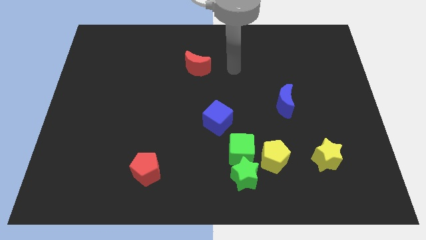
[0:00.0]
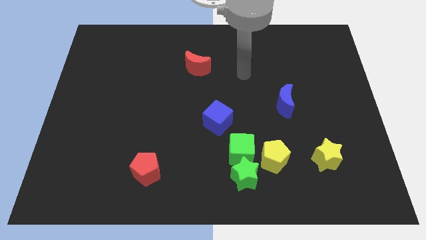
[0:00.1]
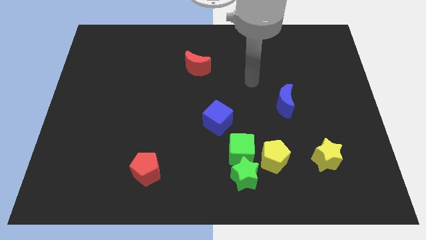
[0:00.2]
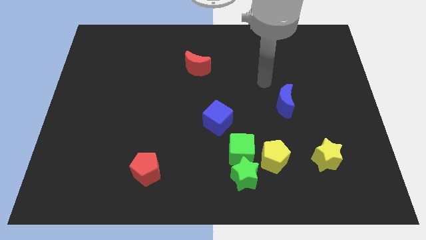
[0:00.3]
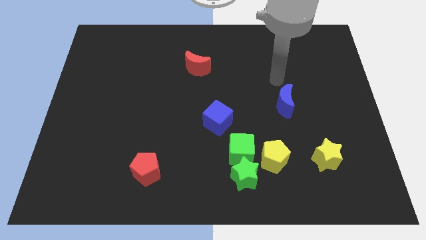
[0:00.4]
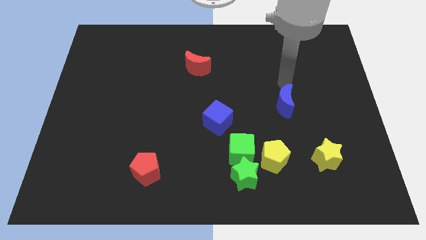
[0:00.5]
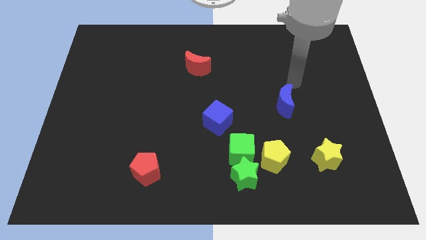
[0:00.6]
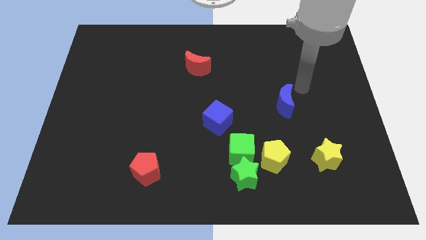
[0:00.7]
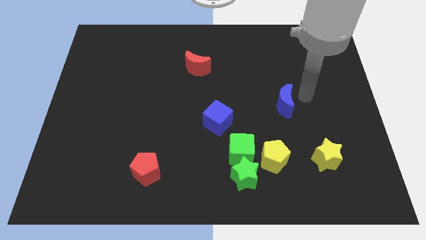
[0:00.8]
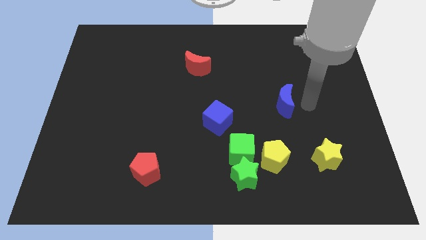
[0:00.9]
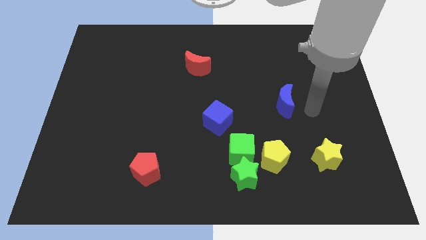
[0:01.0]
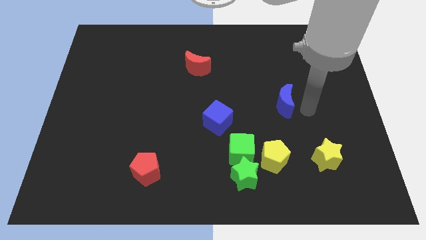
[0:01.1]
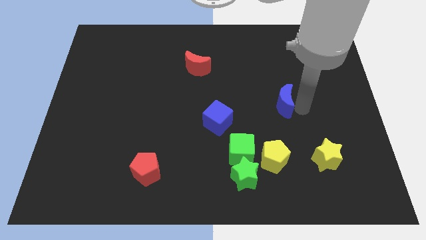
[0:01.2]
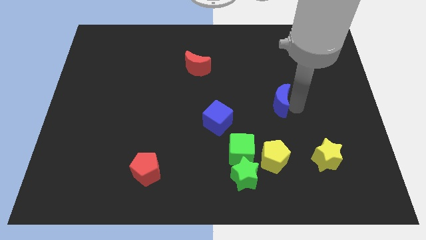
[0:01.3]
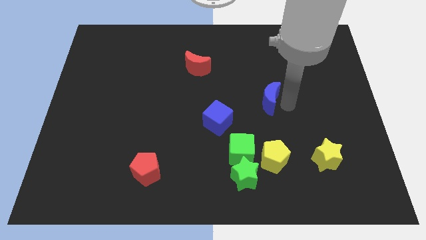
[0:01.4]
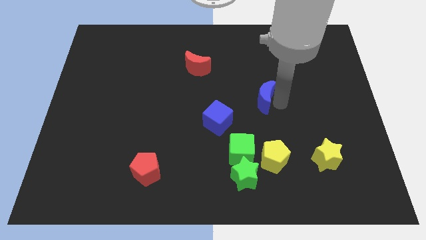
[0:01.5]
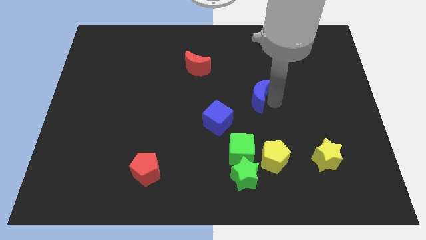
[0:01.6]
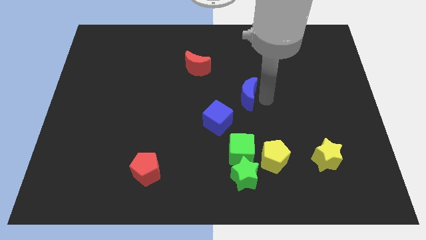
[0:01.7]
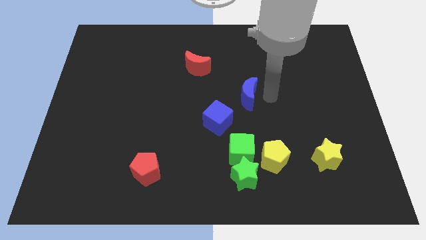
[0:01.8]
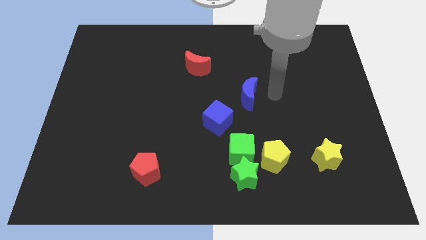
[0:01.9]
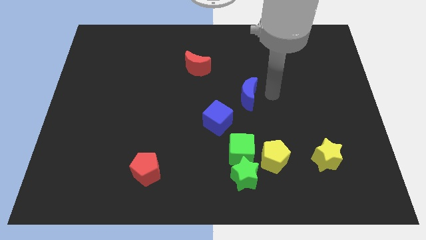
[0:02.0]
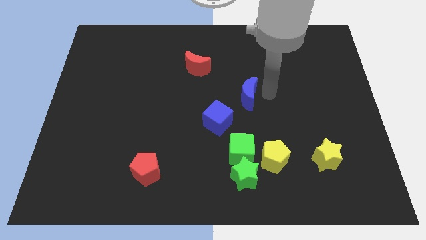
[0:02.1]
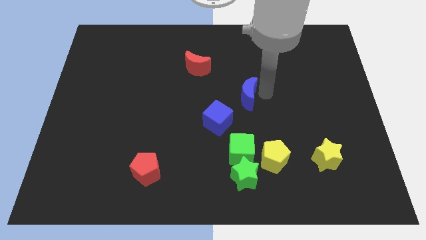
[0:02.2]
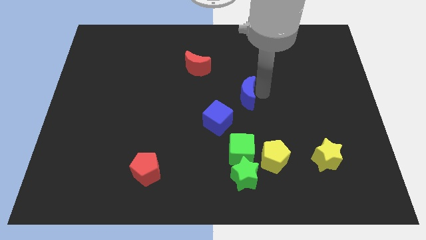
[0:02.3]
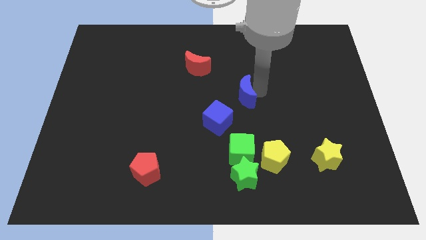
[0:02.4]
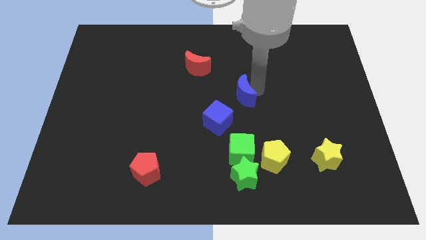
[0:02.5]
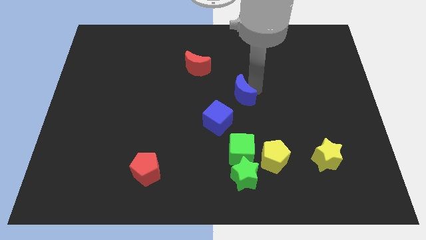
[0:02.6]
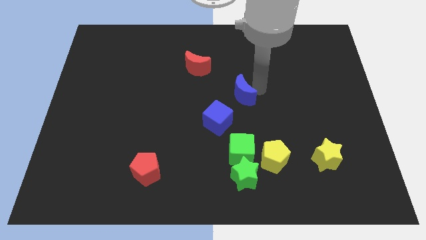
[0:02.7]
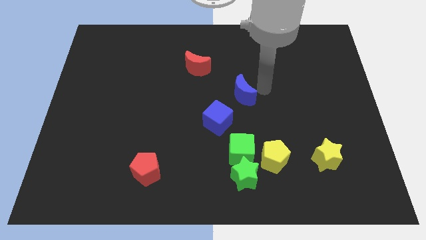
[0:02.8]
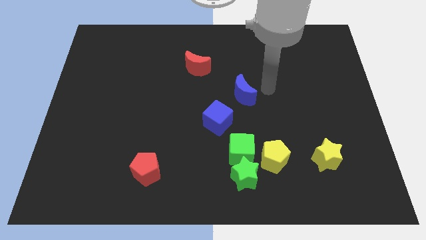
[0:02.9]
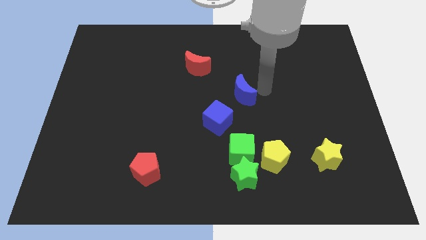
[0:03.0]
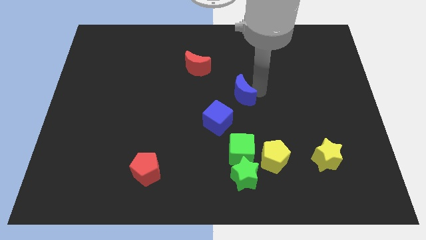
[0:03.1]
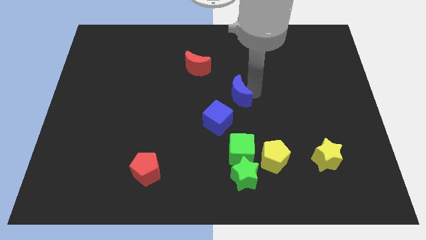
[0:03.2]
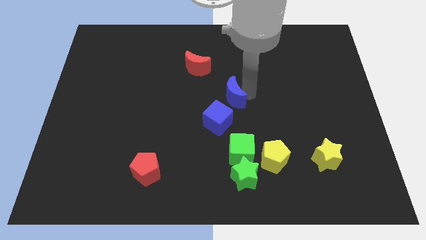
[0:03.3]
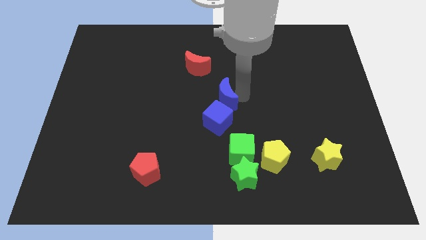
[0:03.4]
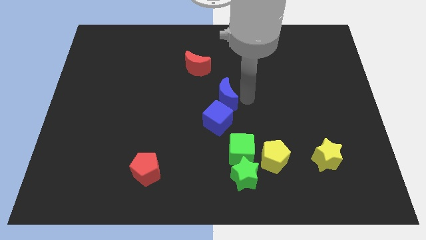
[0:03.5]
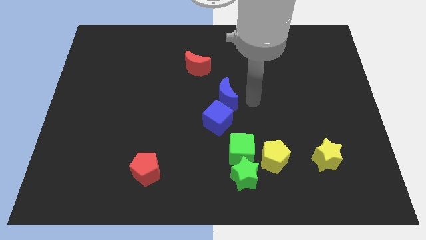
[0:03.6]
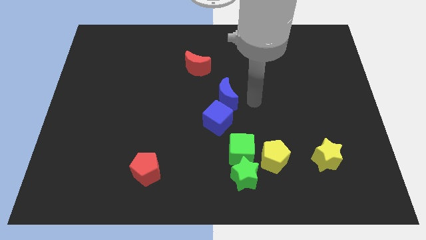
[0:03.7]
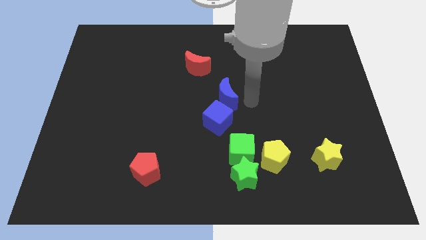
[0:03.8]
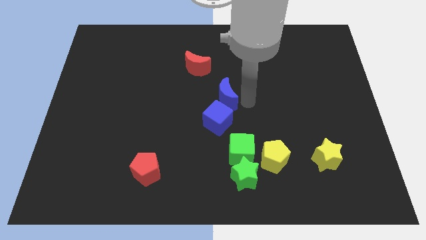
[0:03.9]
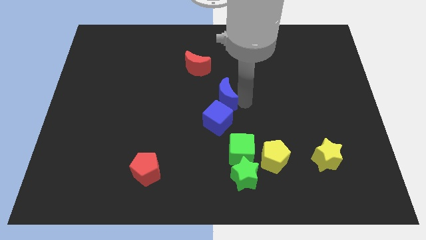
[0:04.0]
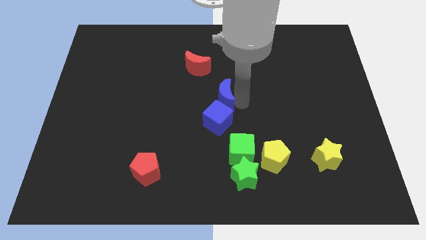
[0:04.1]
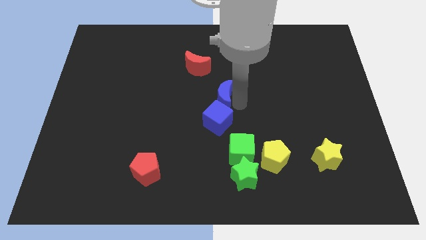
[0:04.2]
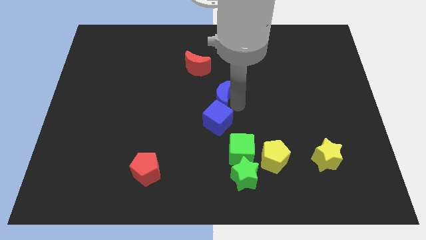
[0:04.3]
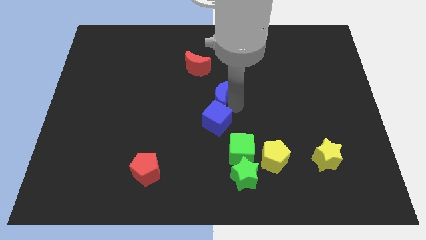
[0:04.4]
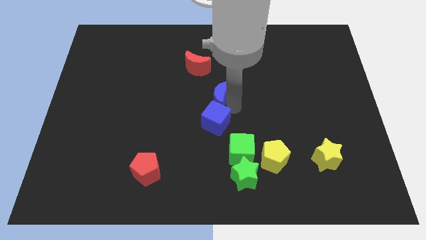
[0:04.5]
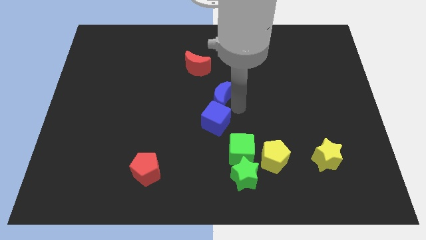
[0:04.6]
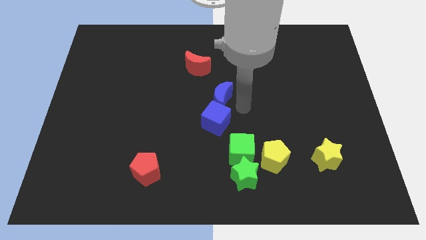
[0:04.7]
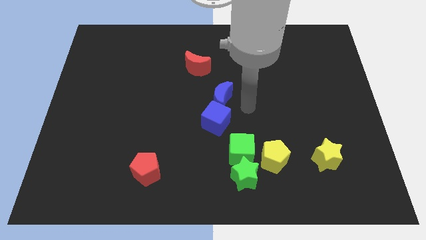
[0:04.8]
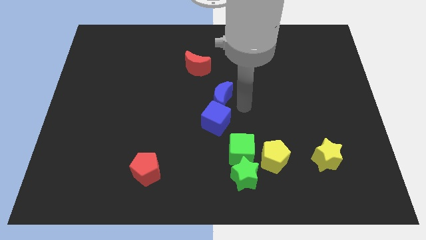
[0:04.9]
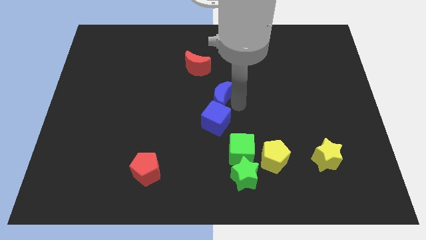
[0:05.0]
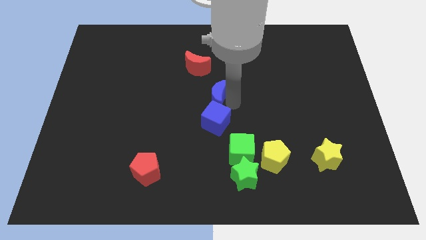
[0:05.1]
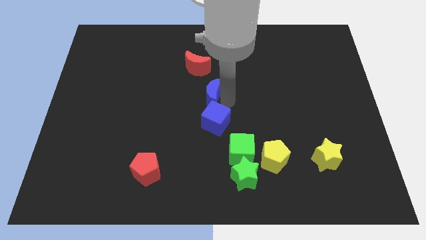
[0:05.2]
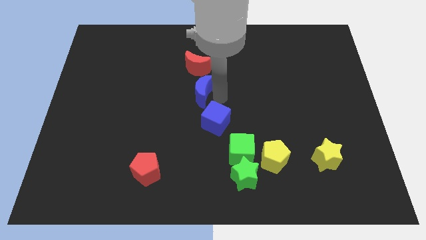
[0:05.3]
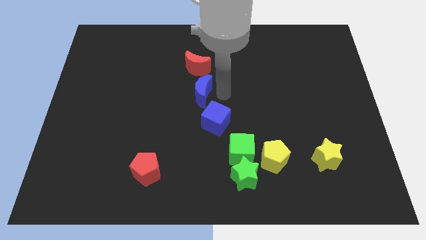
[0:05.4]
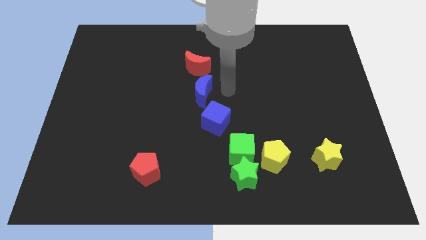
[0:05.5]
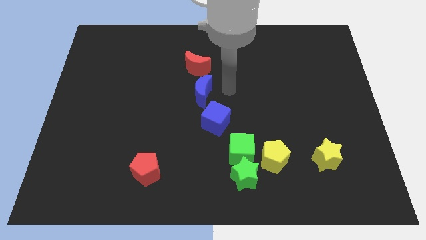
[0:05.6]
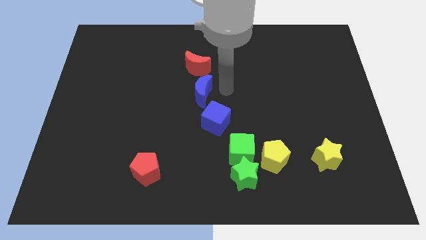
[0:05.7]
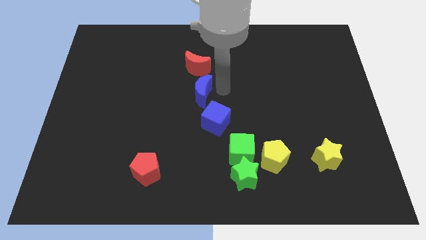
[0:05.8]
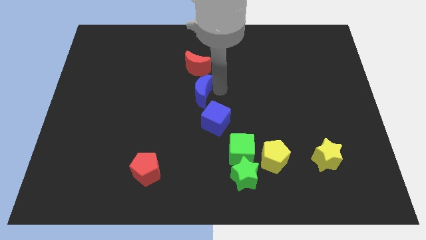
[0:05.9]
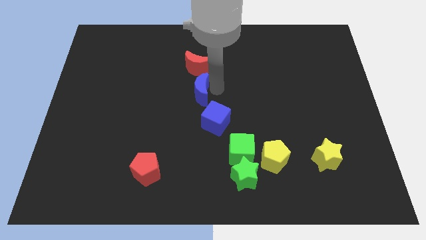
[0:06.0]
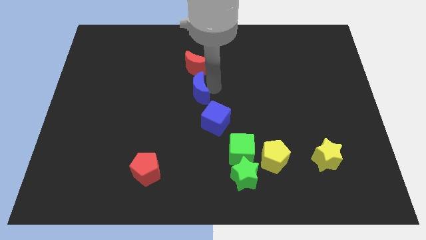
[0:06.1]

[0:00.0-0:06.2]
slide the blue moon left

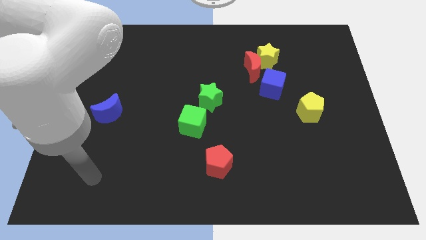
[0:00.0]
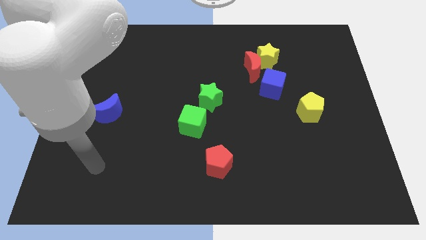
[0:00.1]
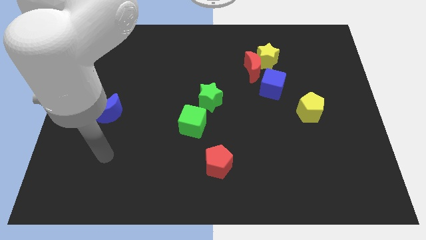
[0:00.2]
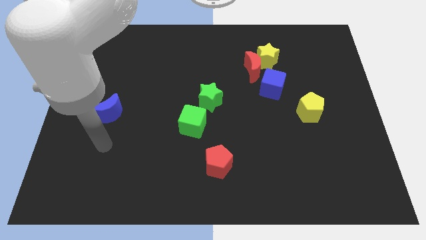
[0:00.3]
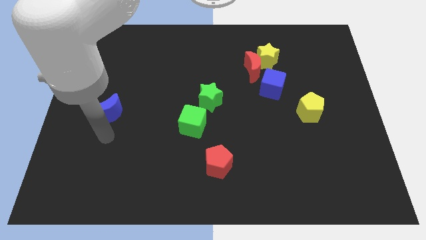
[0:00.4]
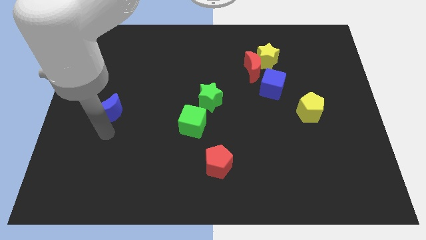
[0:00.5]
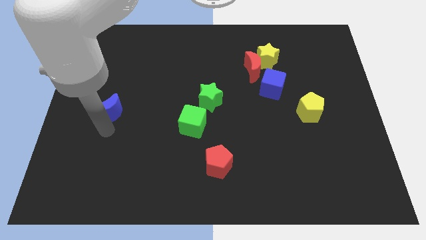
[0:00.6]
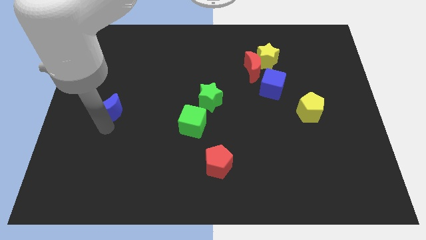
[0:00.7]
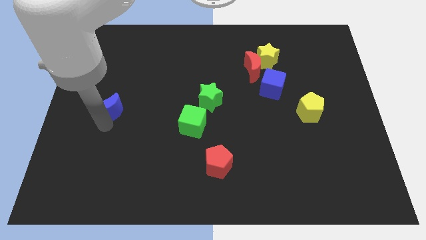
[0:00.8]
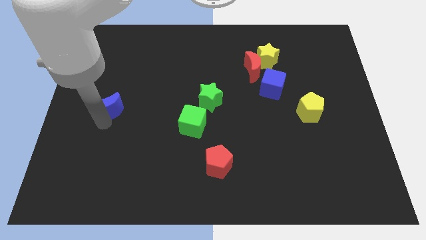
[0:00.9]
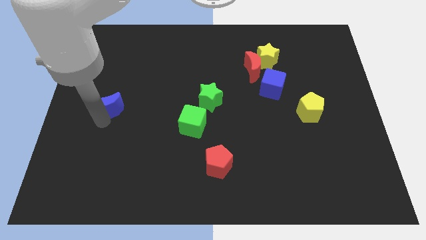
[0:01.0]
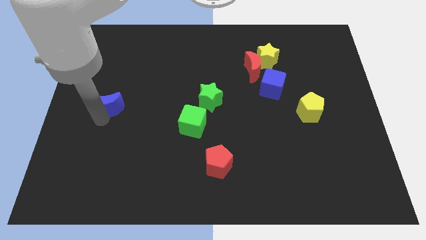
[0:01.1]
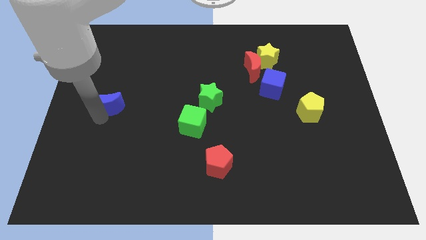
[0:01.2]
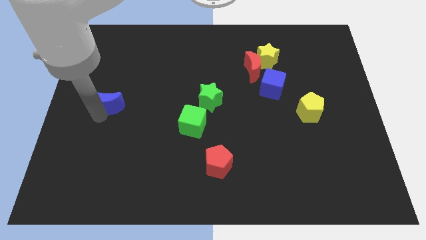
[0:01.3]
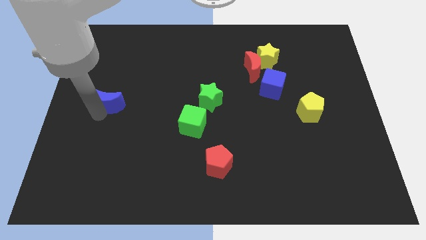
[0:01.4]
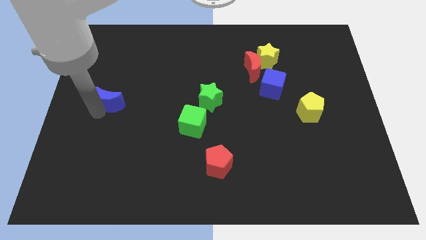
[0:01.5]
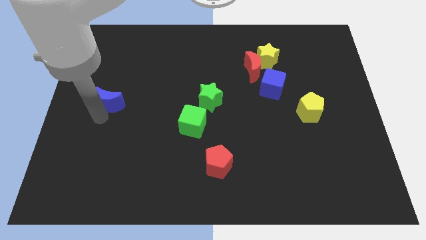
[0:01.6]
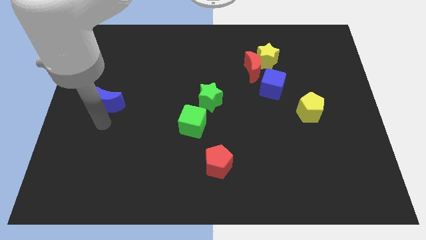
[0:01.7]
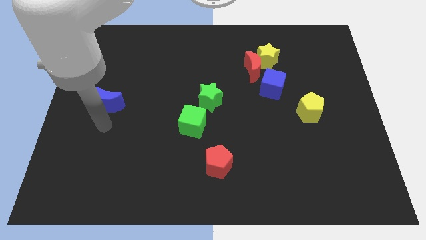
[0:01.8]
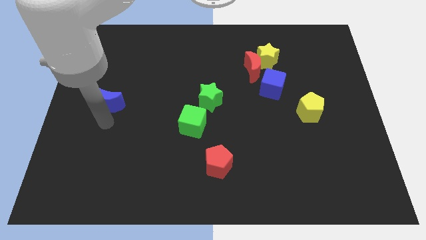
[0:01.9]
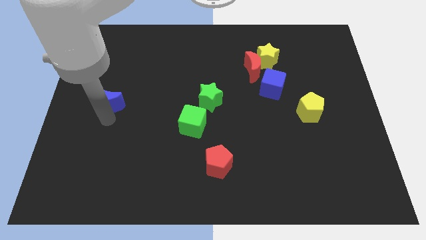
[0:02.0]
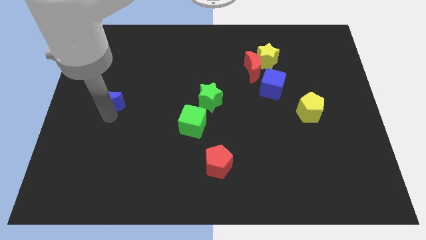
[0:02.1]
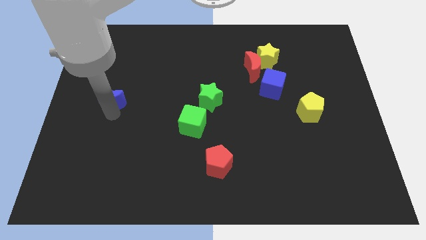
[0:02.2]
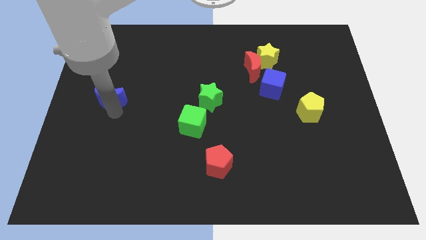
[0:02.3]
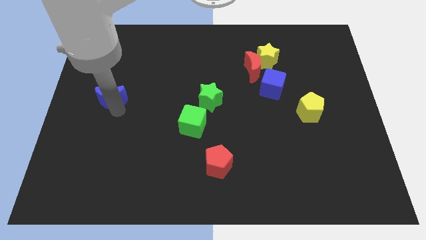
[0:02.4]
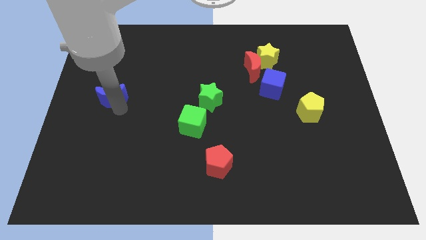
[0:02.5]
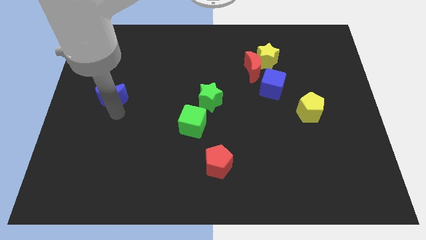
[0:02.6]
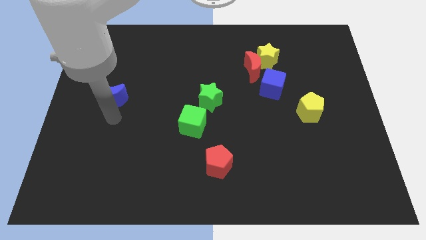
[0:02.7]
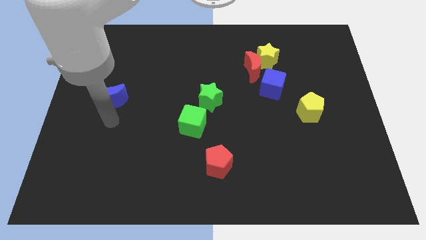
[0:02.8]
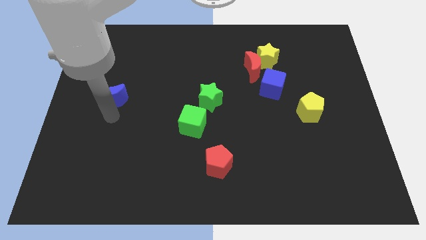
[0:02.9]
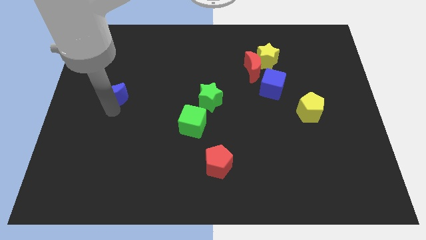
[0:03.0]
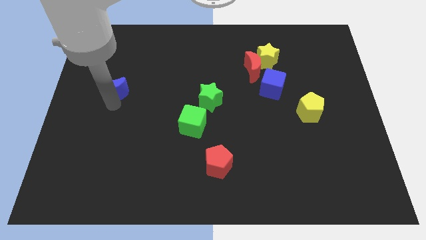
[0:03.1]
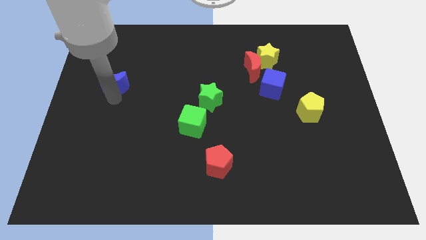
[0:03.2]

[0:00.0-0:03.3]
move the blue moon upwards a little
